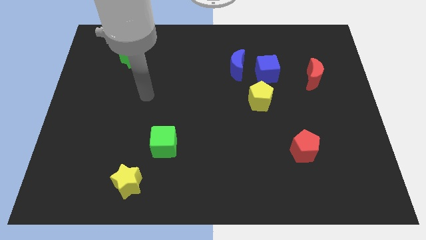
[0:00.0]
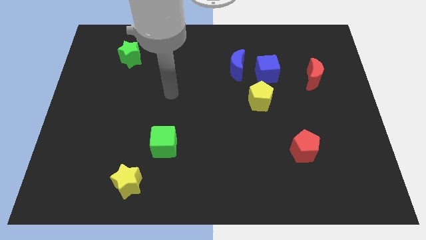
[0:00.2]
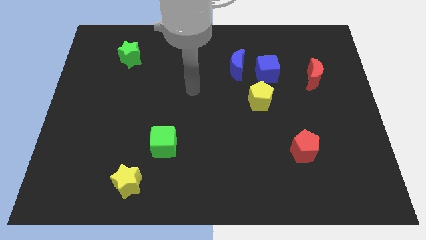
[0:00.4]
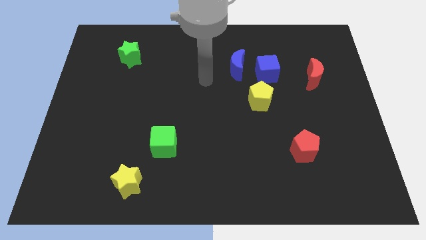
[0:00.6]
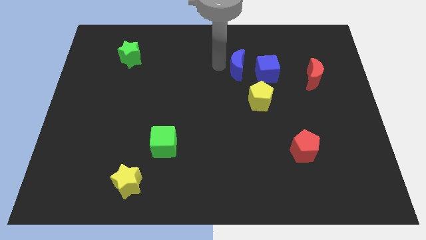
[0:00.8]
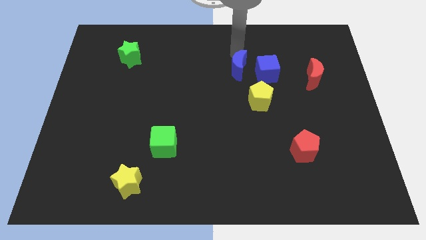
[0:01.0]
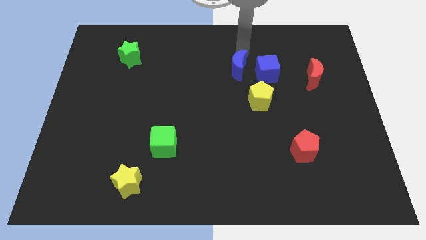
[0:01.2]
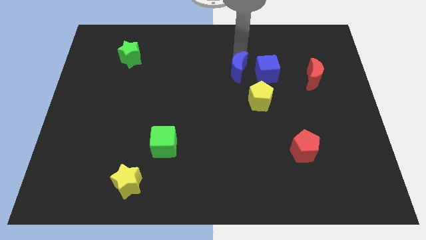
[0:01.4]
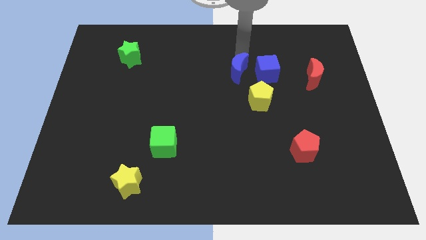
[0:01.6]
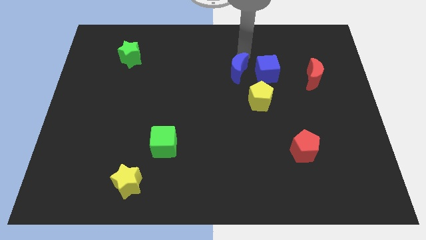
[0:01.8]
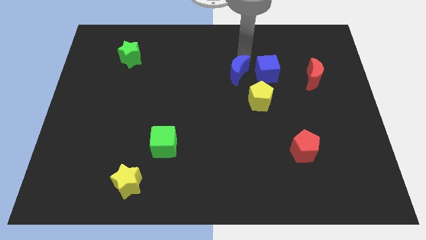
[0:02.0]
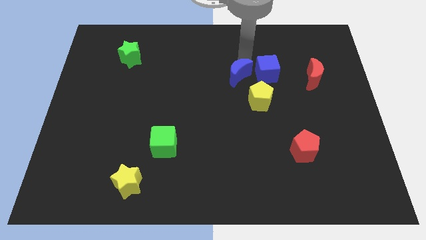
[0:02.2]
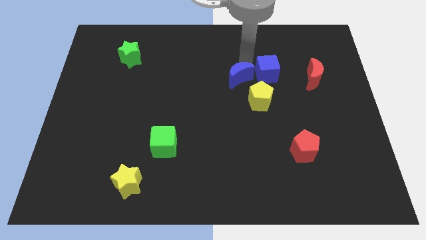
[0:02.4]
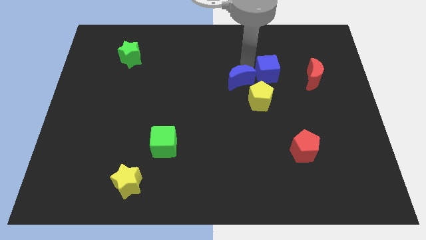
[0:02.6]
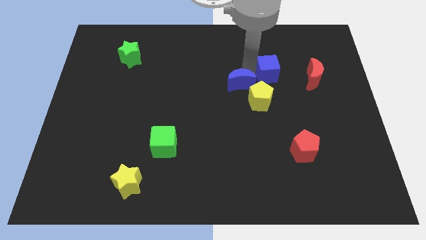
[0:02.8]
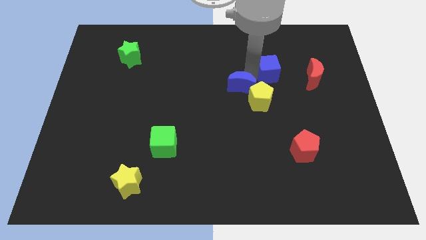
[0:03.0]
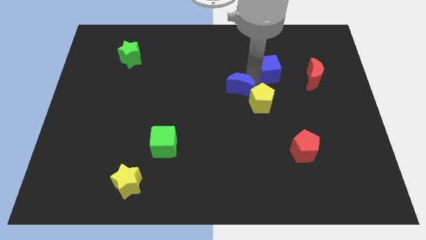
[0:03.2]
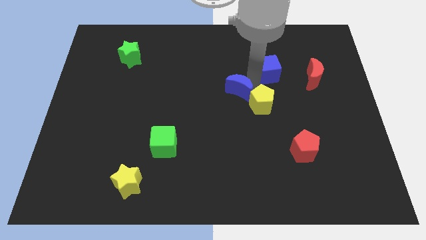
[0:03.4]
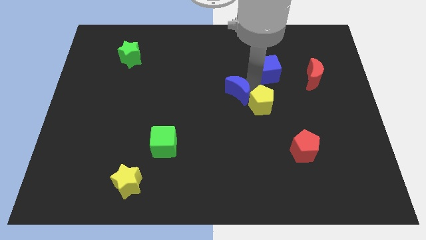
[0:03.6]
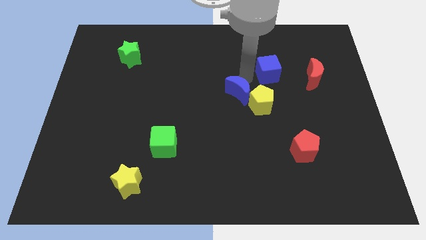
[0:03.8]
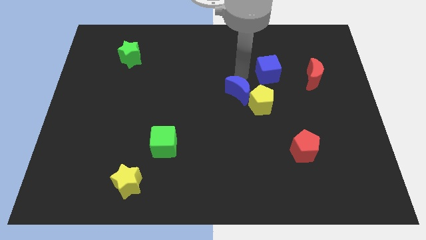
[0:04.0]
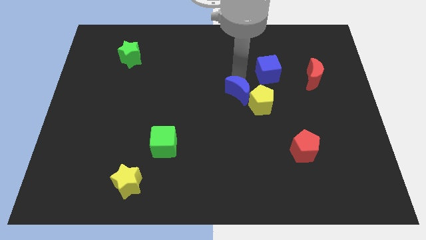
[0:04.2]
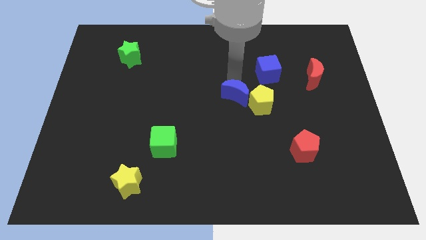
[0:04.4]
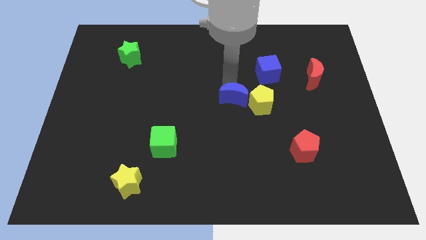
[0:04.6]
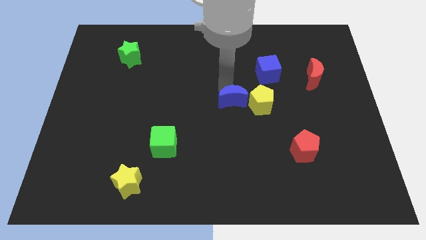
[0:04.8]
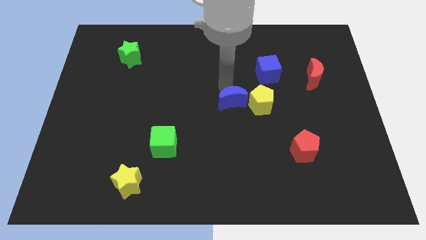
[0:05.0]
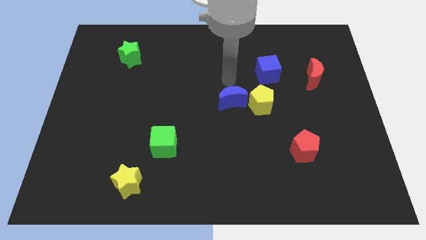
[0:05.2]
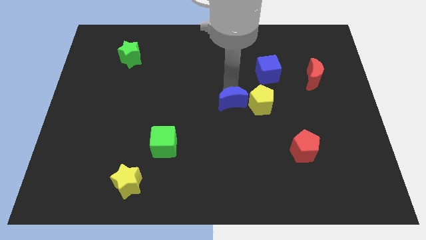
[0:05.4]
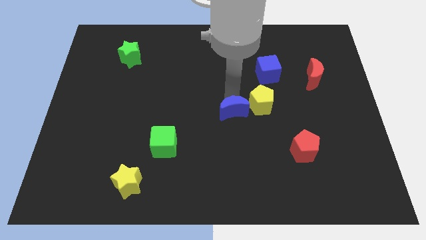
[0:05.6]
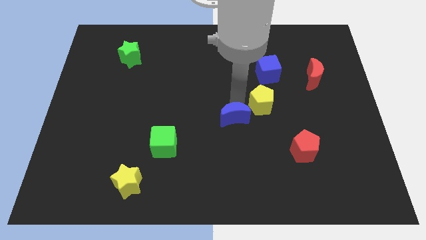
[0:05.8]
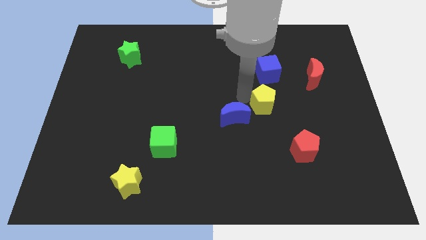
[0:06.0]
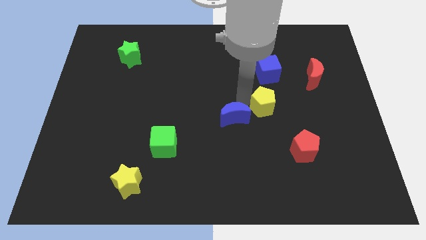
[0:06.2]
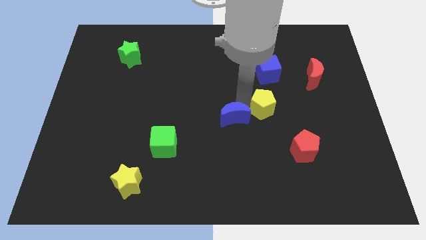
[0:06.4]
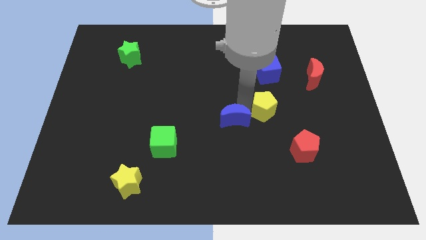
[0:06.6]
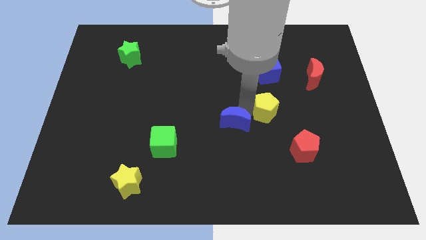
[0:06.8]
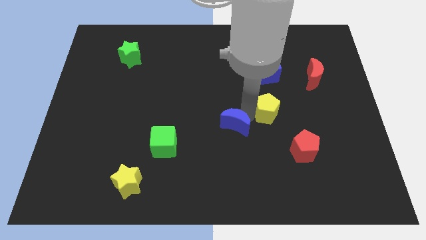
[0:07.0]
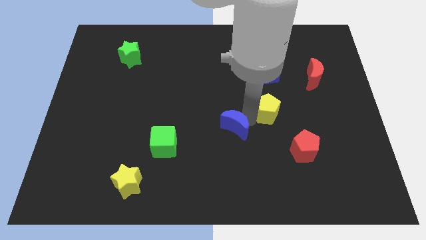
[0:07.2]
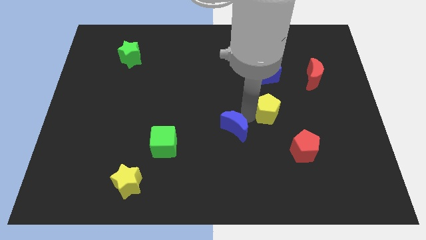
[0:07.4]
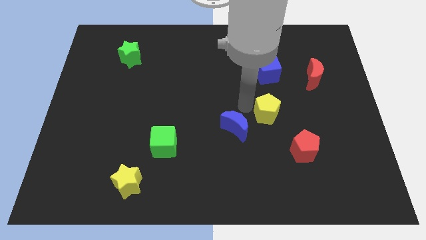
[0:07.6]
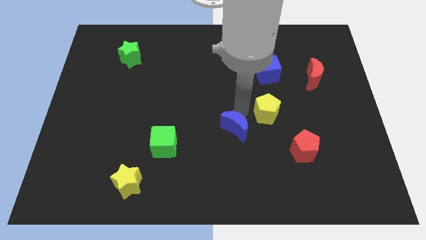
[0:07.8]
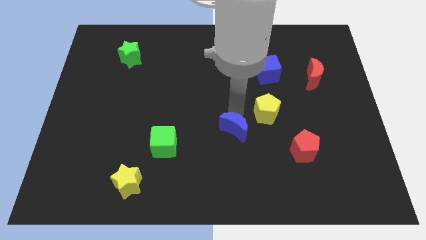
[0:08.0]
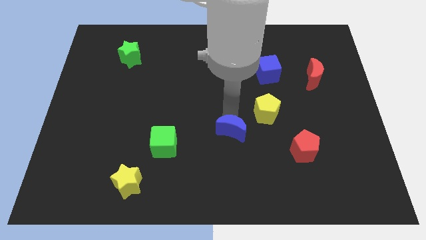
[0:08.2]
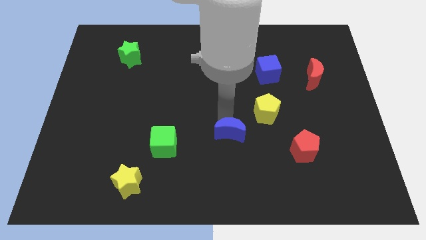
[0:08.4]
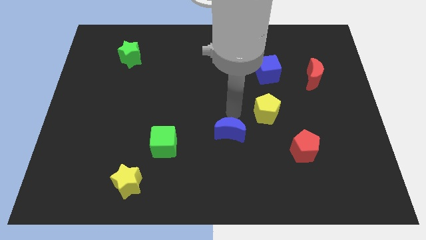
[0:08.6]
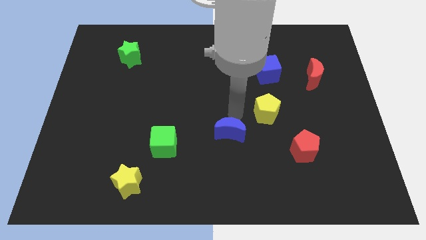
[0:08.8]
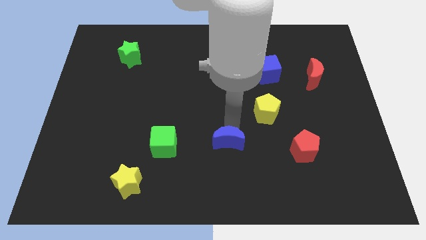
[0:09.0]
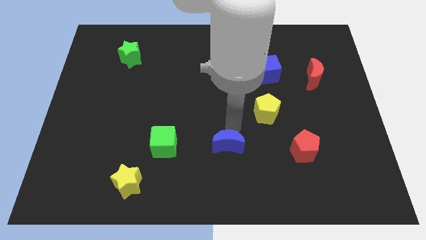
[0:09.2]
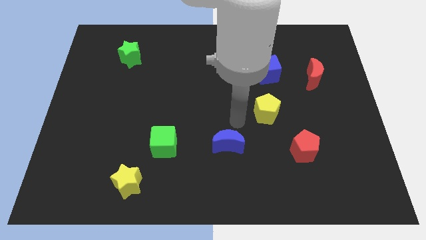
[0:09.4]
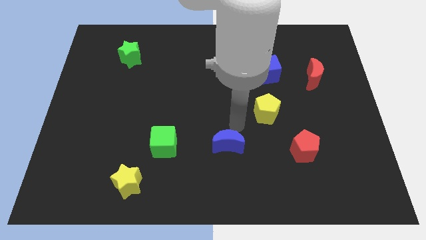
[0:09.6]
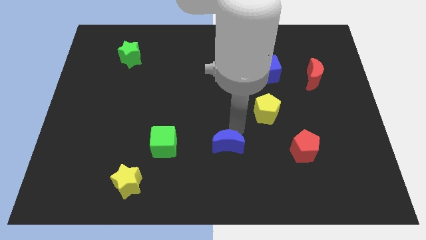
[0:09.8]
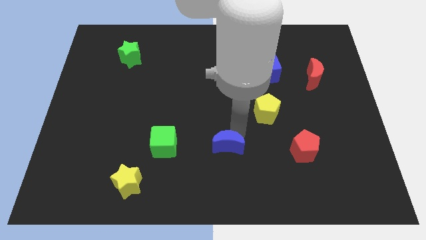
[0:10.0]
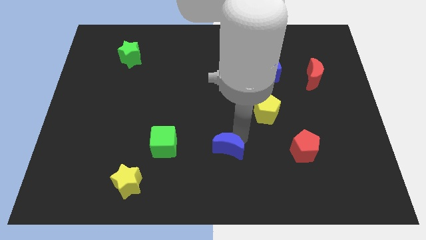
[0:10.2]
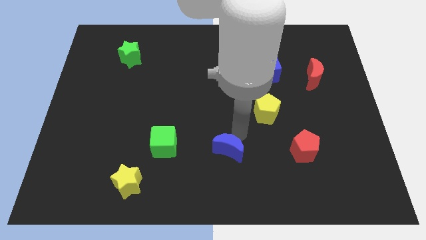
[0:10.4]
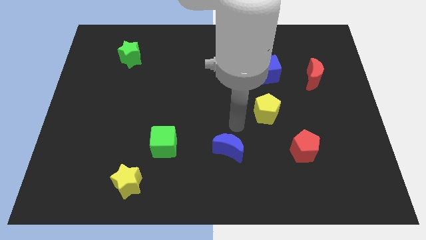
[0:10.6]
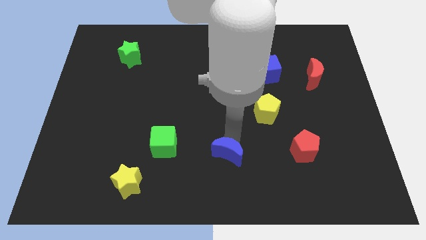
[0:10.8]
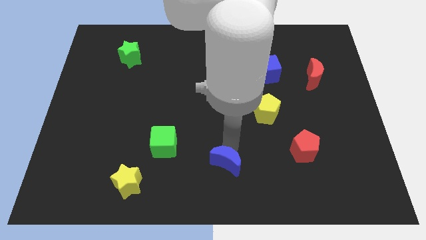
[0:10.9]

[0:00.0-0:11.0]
move the blue moon to the bottom side

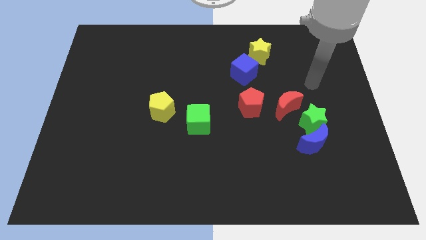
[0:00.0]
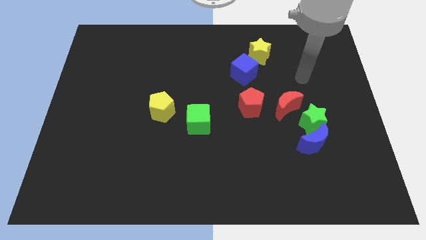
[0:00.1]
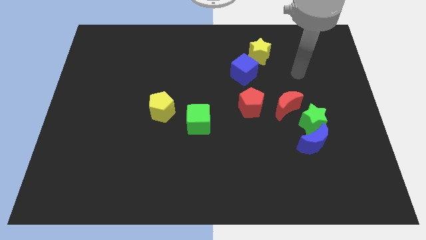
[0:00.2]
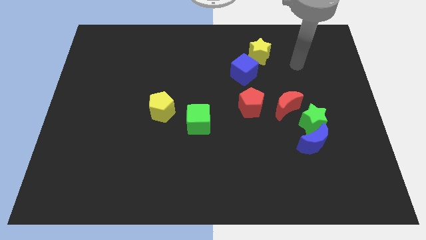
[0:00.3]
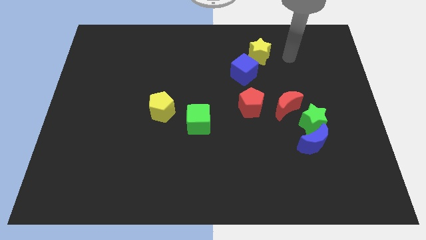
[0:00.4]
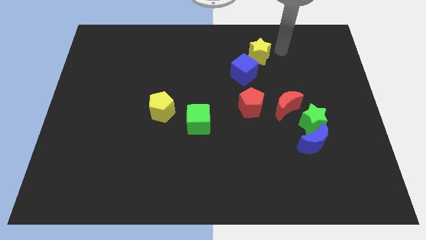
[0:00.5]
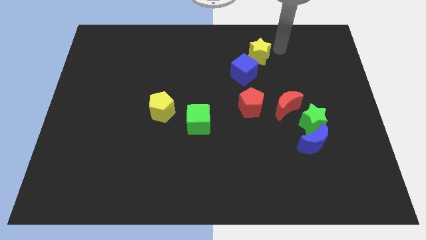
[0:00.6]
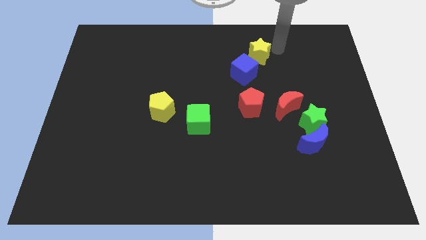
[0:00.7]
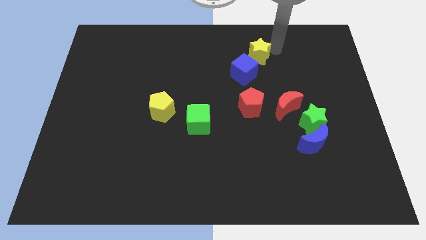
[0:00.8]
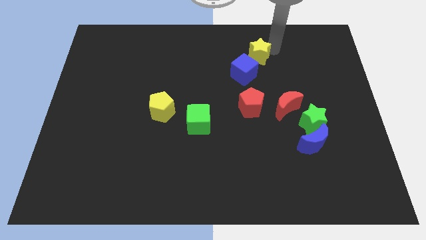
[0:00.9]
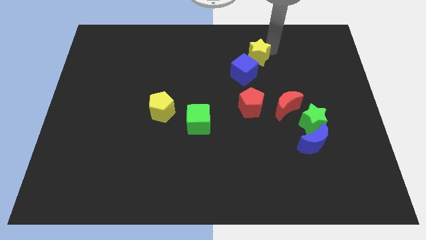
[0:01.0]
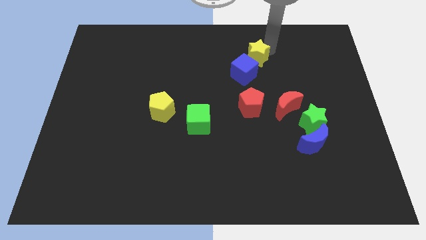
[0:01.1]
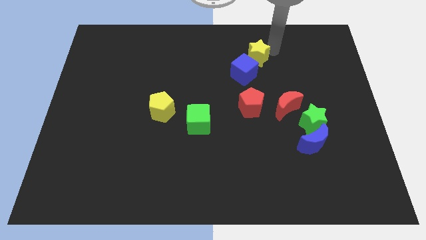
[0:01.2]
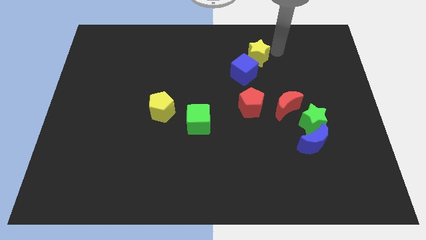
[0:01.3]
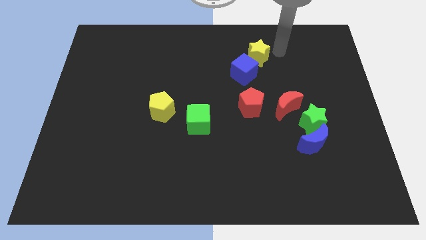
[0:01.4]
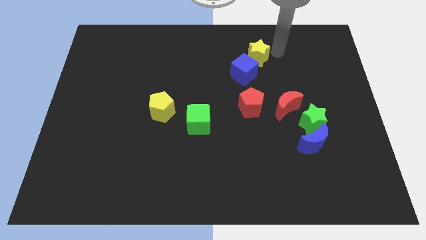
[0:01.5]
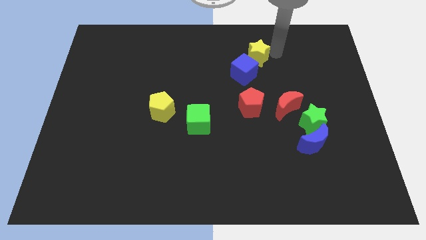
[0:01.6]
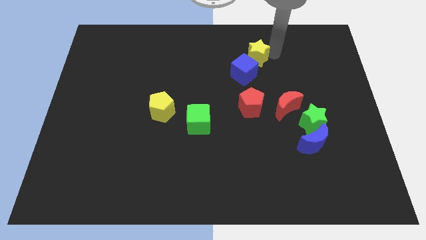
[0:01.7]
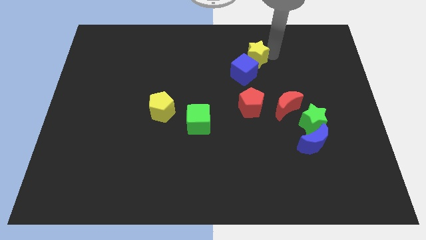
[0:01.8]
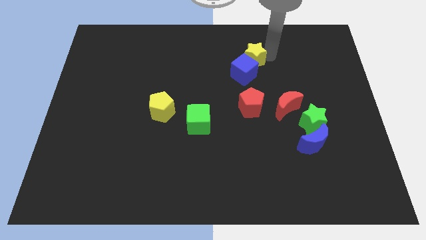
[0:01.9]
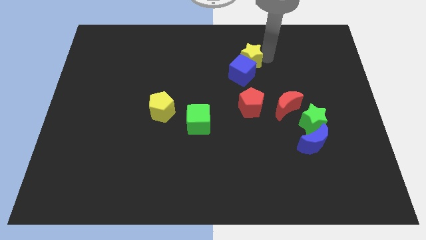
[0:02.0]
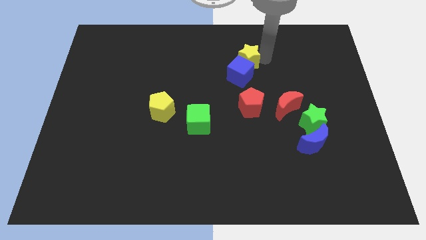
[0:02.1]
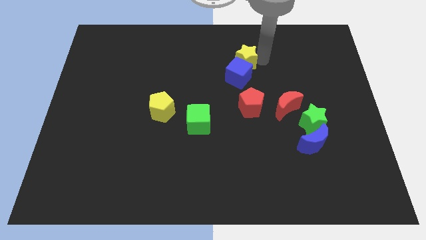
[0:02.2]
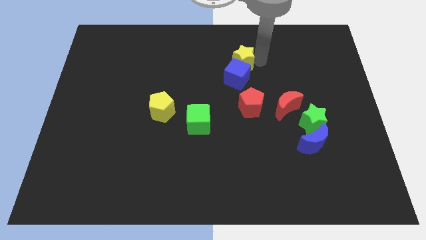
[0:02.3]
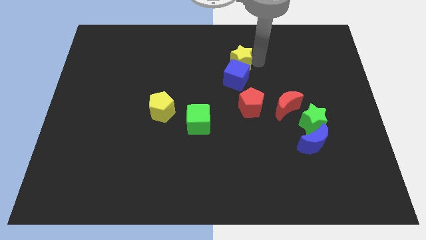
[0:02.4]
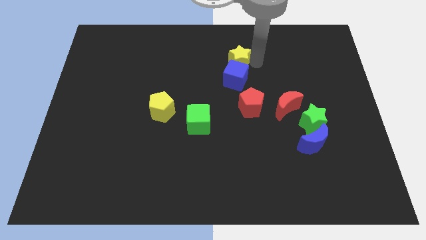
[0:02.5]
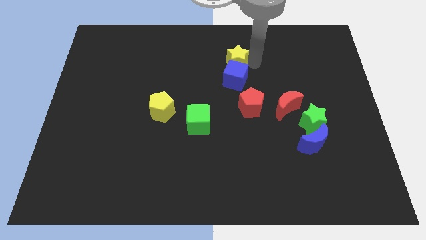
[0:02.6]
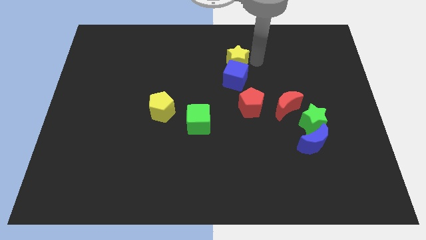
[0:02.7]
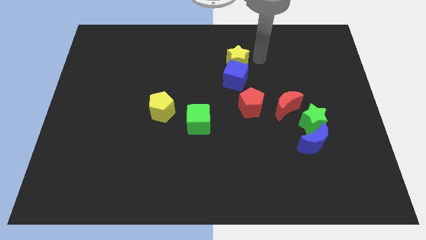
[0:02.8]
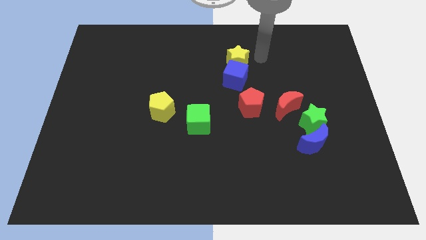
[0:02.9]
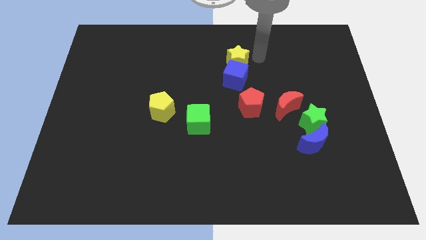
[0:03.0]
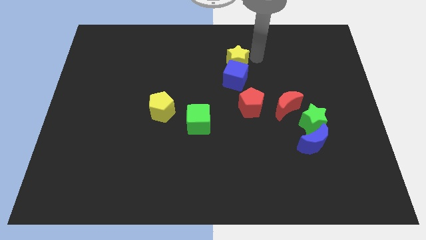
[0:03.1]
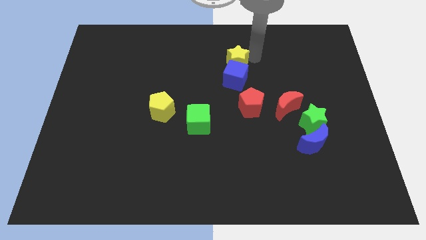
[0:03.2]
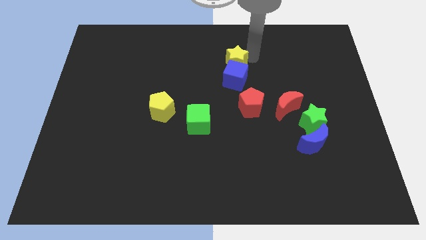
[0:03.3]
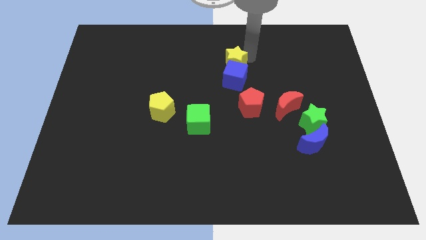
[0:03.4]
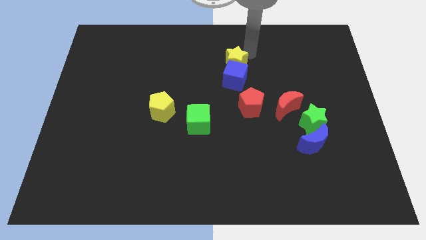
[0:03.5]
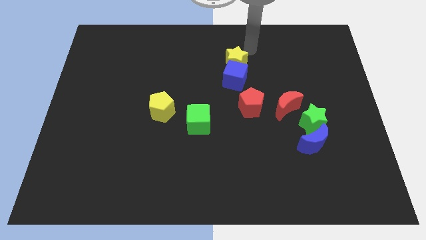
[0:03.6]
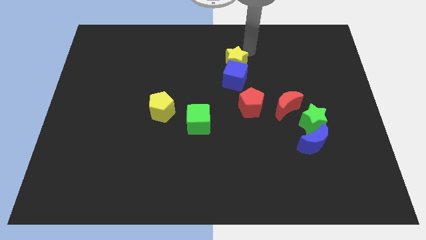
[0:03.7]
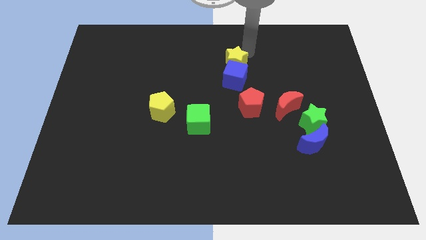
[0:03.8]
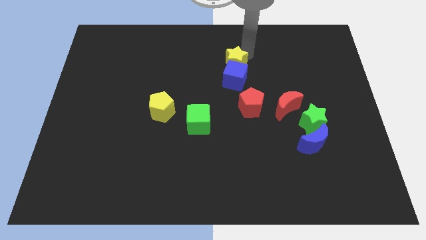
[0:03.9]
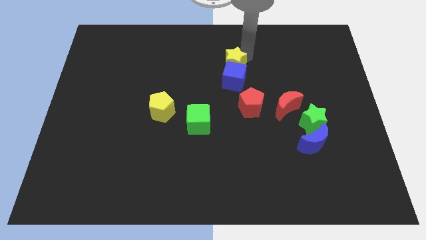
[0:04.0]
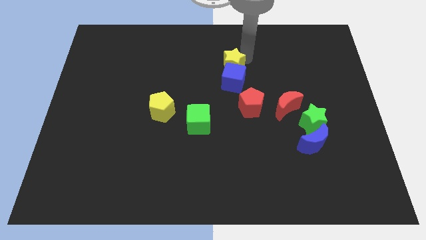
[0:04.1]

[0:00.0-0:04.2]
move the yellow star to the middle
